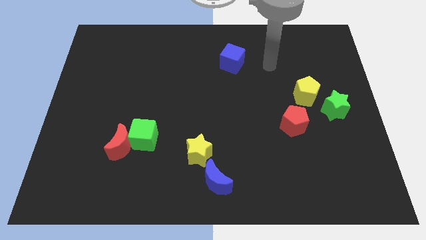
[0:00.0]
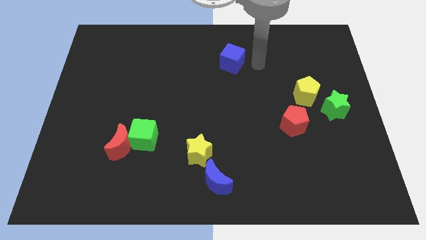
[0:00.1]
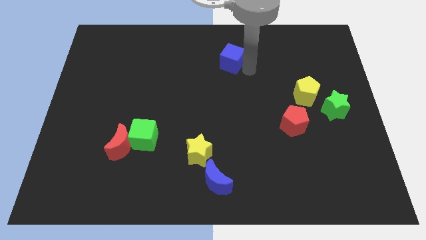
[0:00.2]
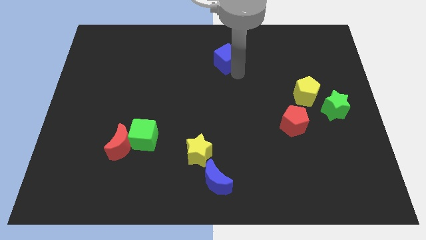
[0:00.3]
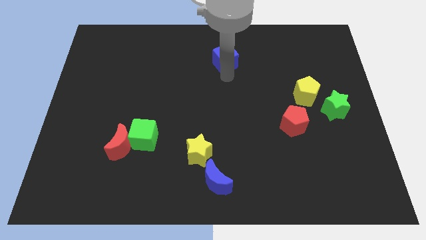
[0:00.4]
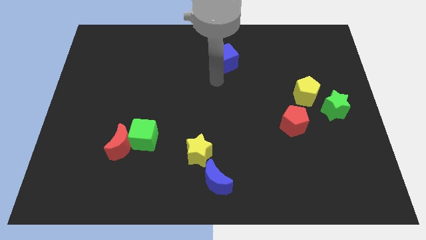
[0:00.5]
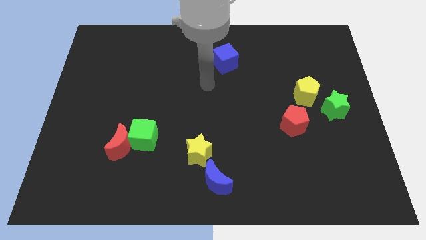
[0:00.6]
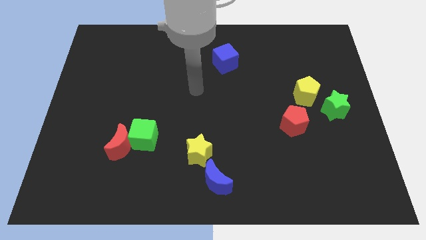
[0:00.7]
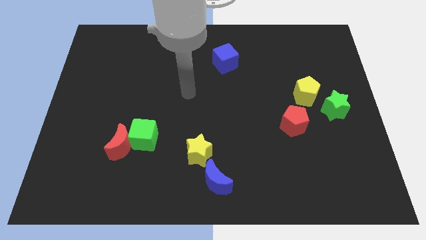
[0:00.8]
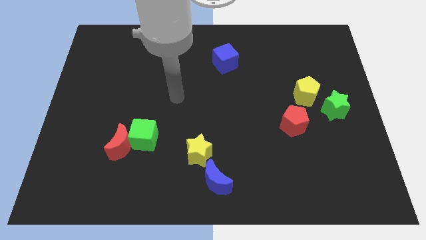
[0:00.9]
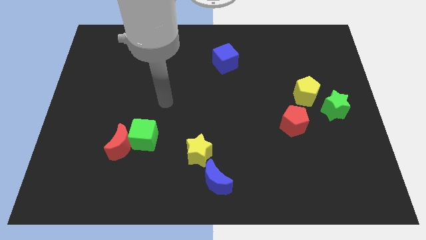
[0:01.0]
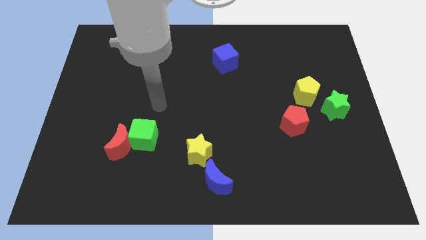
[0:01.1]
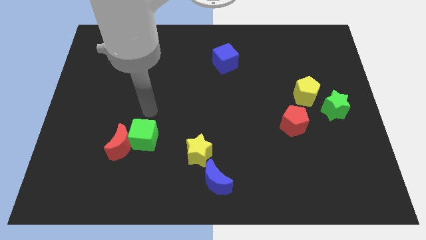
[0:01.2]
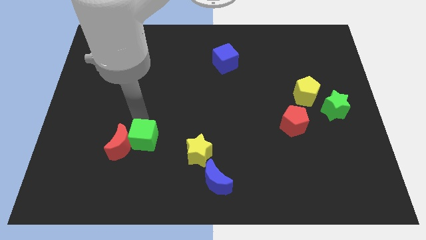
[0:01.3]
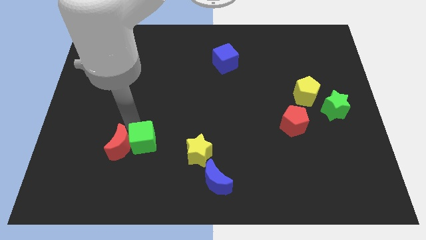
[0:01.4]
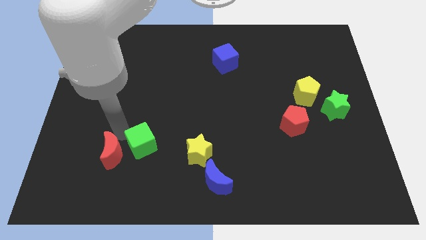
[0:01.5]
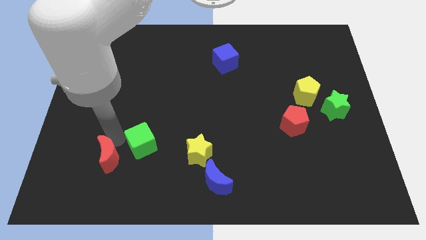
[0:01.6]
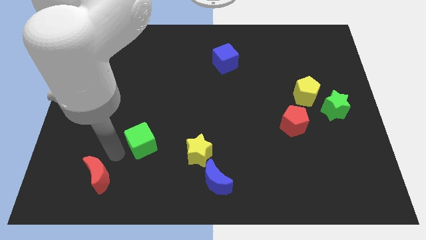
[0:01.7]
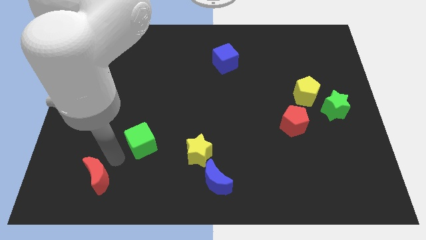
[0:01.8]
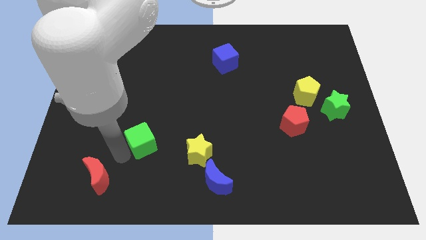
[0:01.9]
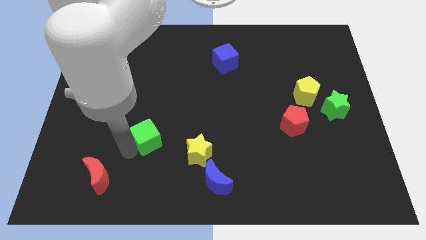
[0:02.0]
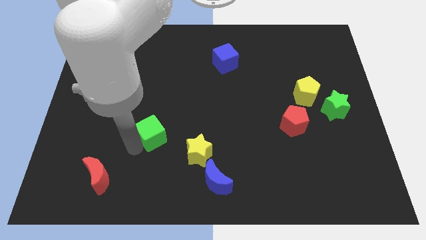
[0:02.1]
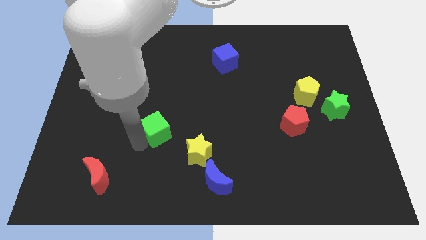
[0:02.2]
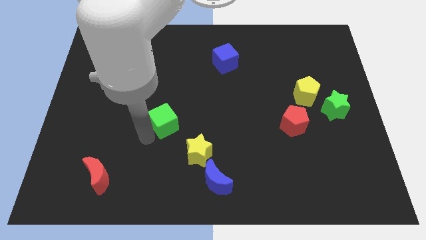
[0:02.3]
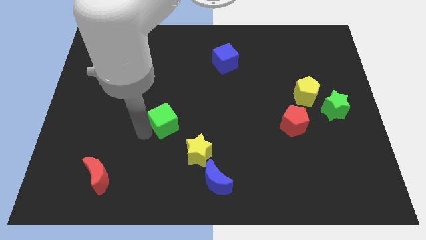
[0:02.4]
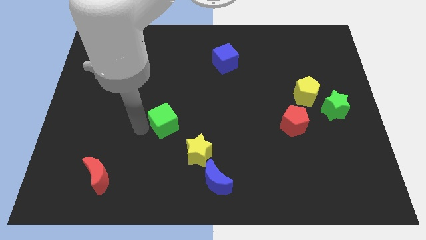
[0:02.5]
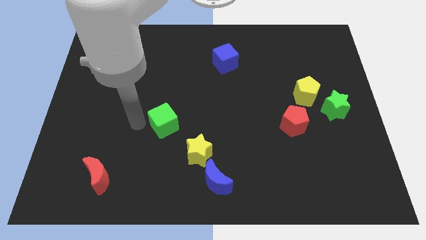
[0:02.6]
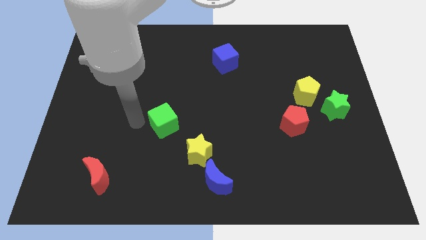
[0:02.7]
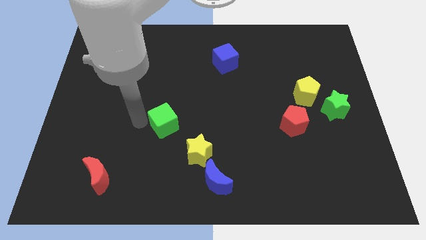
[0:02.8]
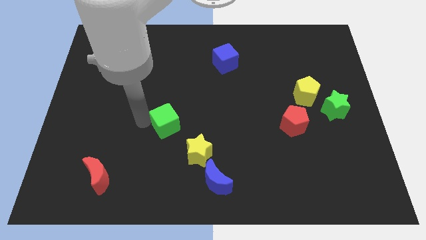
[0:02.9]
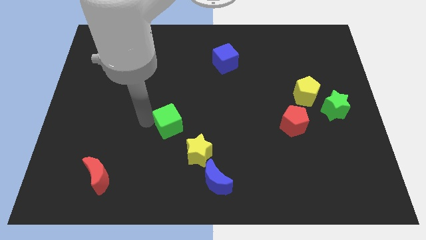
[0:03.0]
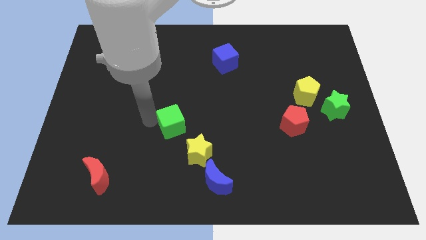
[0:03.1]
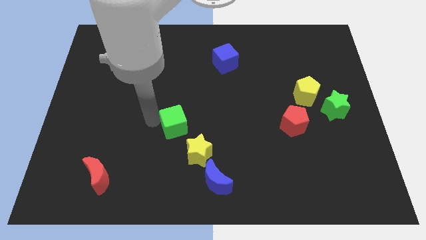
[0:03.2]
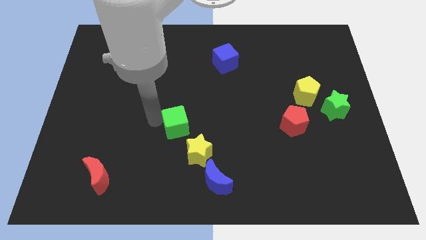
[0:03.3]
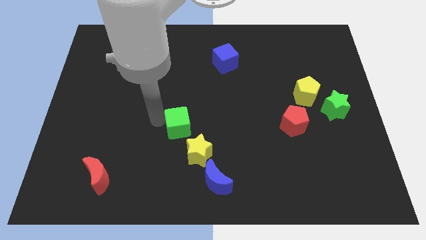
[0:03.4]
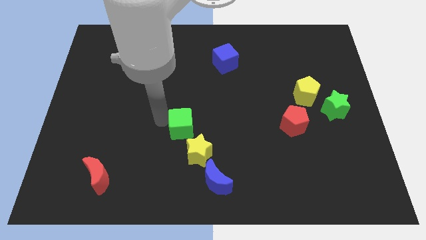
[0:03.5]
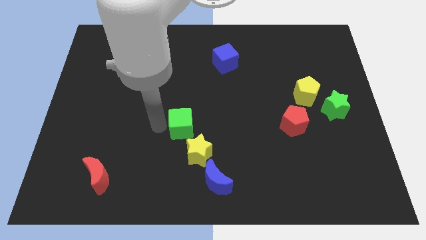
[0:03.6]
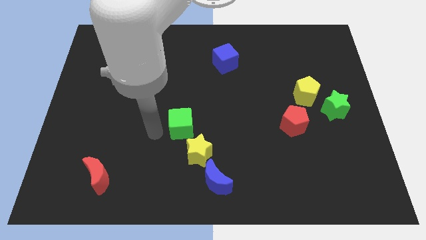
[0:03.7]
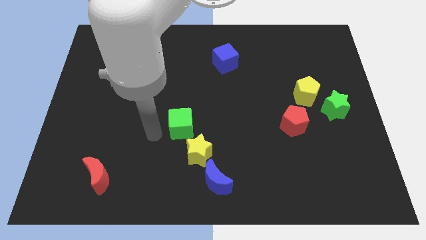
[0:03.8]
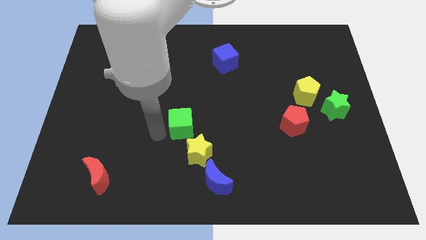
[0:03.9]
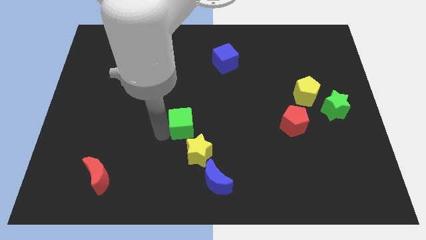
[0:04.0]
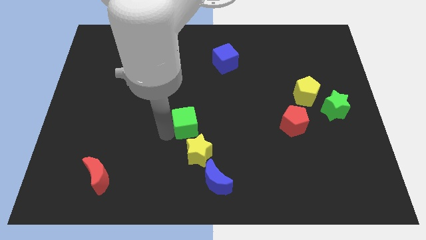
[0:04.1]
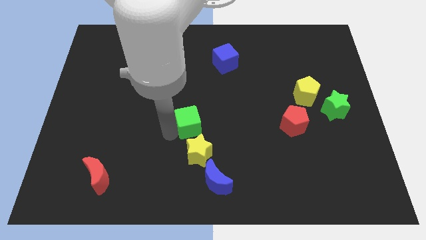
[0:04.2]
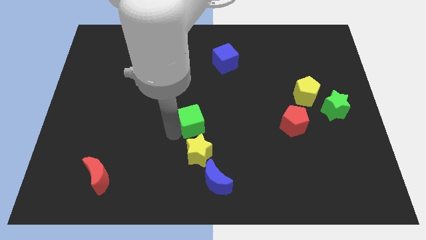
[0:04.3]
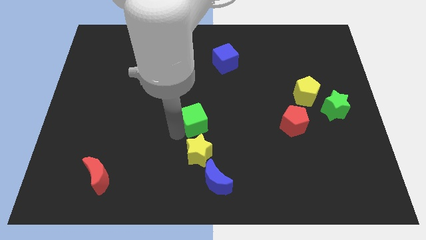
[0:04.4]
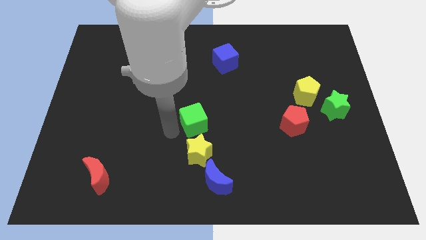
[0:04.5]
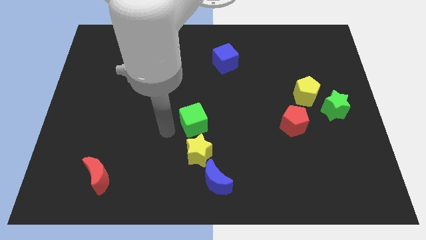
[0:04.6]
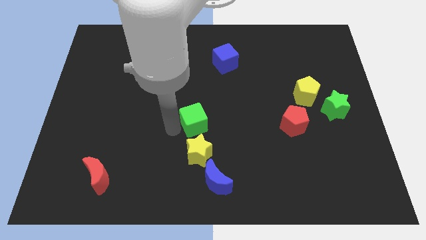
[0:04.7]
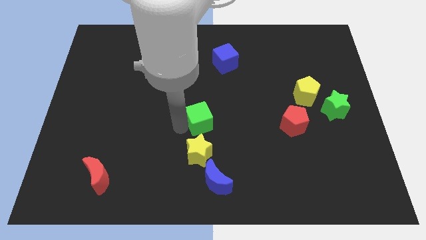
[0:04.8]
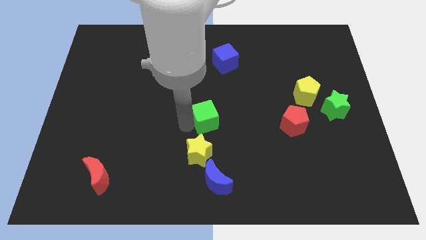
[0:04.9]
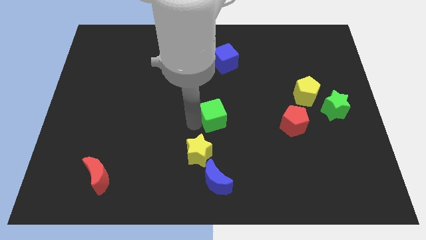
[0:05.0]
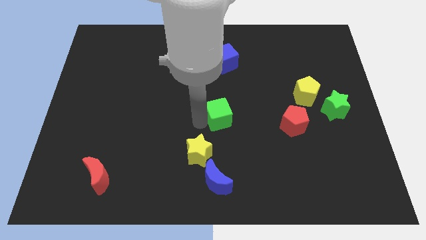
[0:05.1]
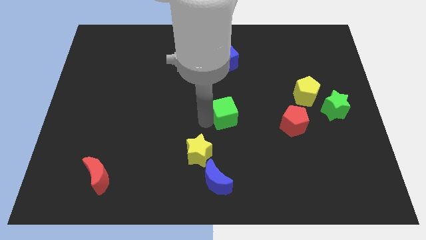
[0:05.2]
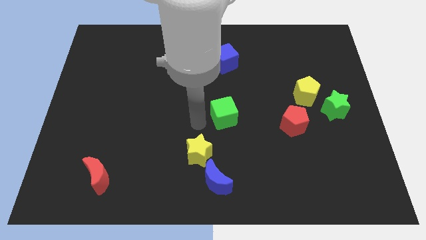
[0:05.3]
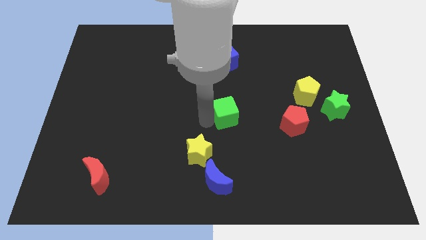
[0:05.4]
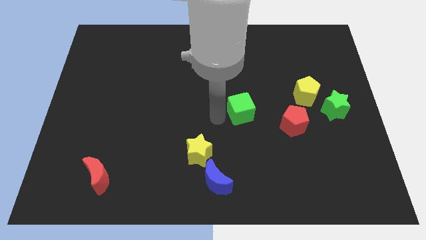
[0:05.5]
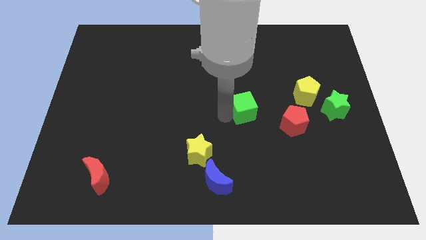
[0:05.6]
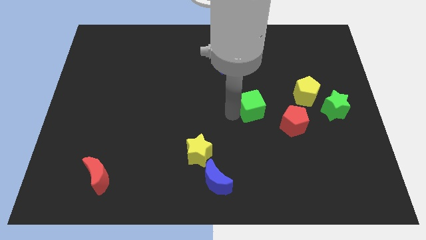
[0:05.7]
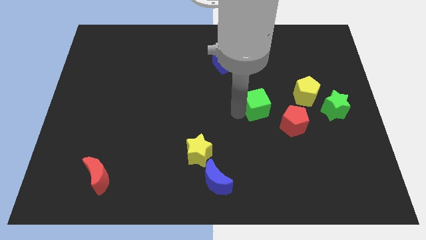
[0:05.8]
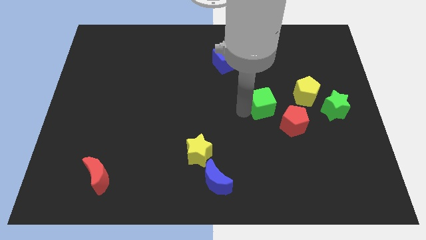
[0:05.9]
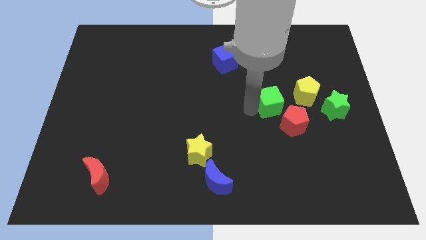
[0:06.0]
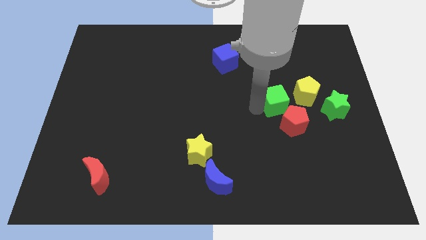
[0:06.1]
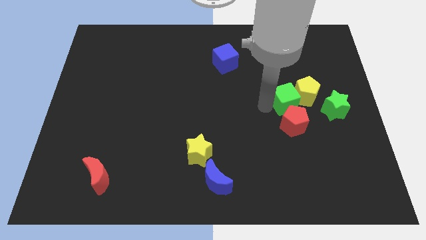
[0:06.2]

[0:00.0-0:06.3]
move the green cube to the yellow pentagon

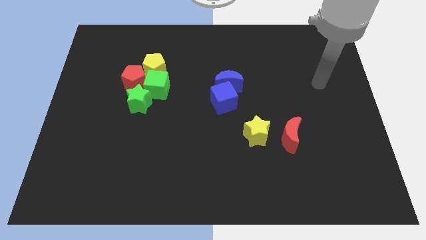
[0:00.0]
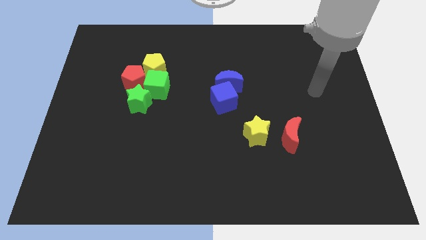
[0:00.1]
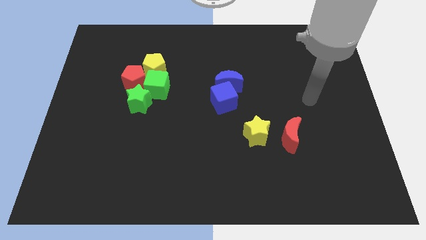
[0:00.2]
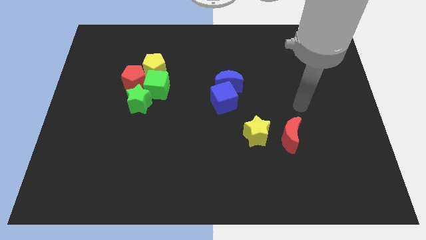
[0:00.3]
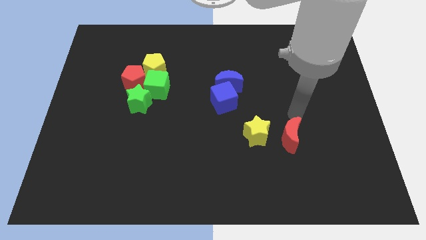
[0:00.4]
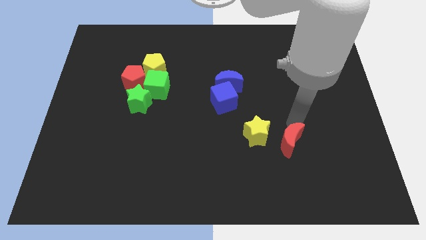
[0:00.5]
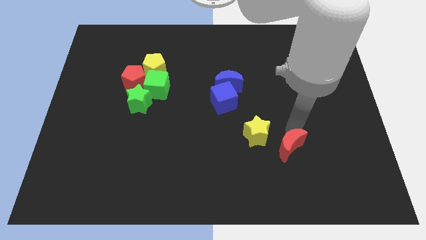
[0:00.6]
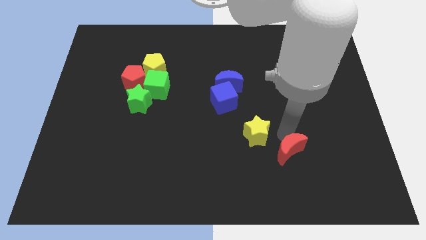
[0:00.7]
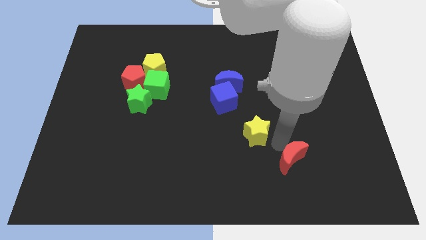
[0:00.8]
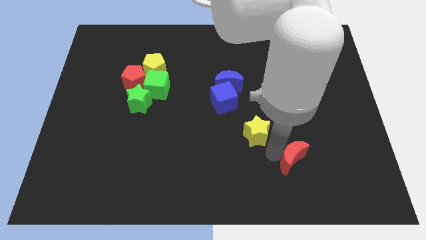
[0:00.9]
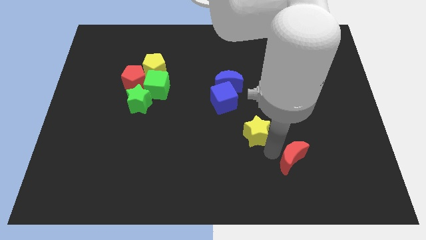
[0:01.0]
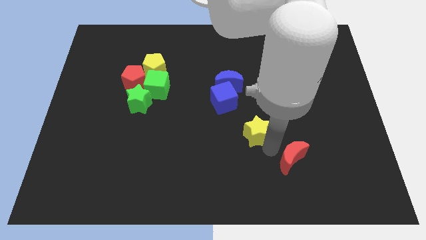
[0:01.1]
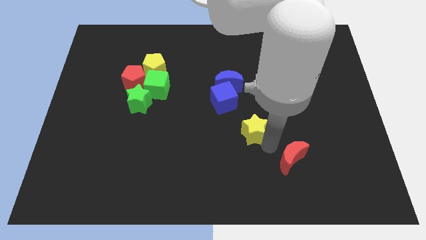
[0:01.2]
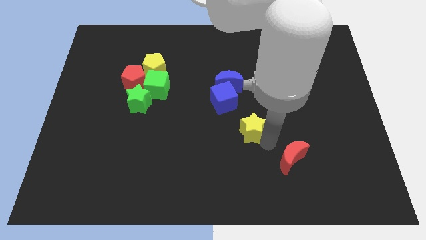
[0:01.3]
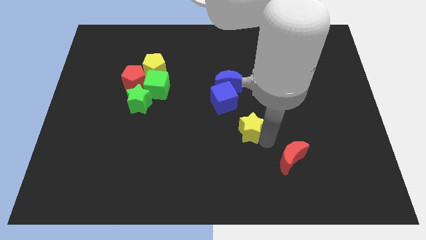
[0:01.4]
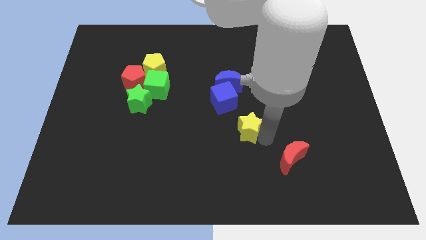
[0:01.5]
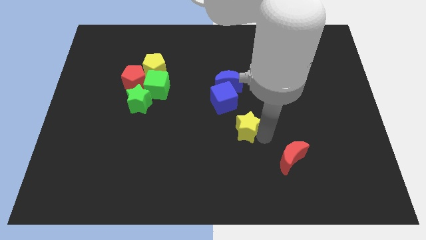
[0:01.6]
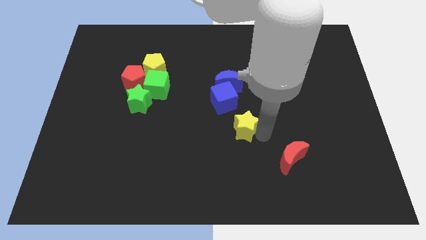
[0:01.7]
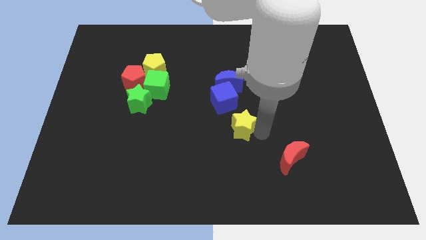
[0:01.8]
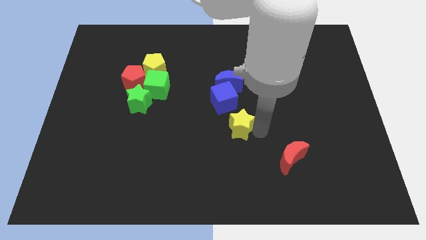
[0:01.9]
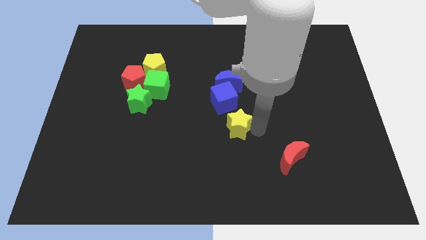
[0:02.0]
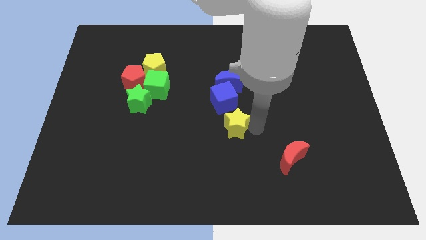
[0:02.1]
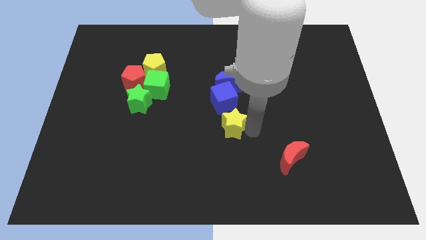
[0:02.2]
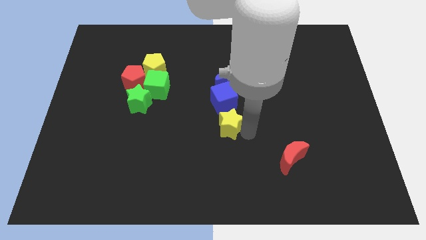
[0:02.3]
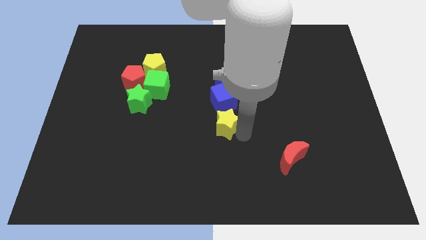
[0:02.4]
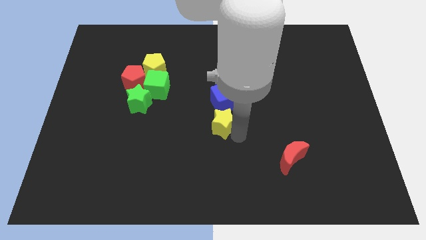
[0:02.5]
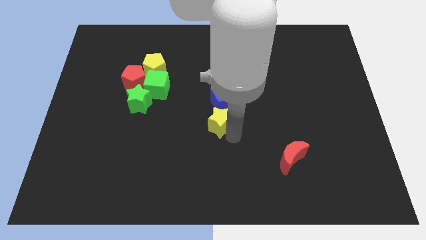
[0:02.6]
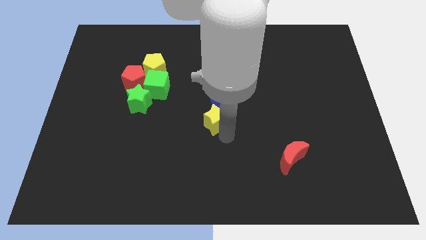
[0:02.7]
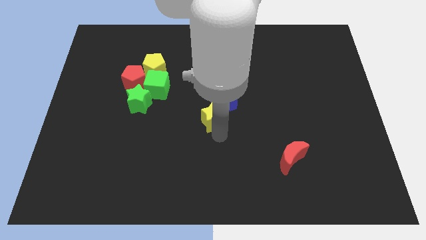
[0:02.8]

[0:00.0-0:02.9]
move the yellow star to the blue cube
